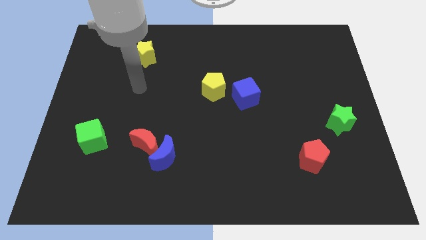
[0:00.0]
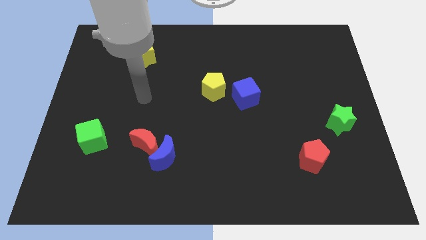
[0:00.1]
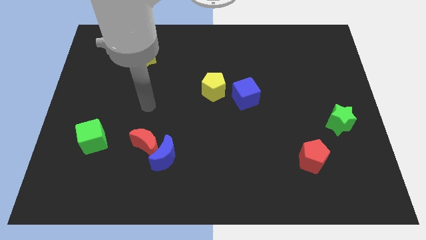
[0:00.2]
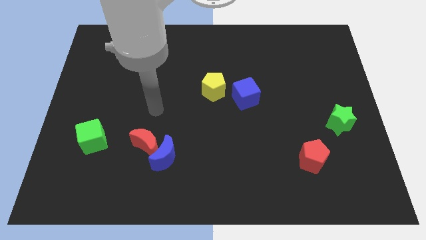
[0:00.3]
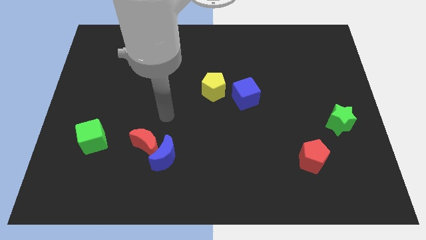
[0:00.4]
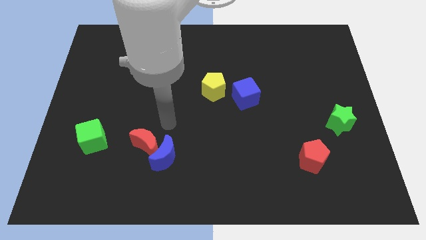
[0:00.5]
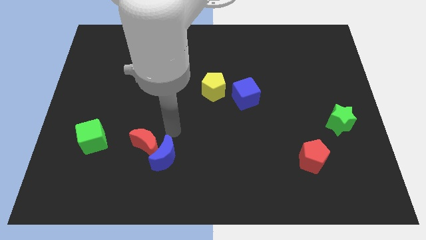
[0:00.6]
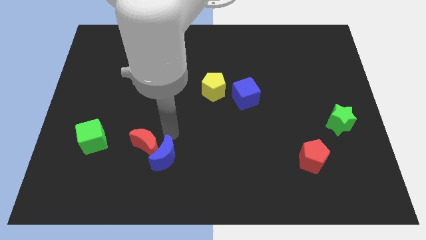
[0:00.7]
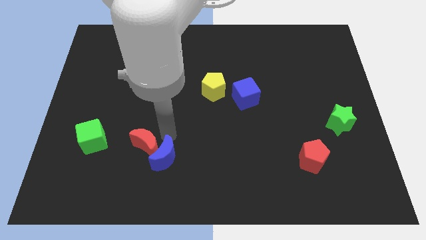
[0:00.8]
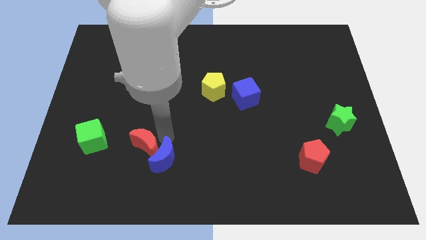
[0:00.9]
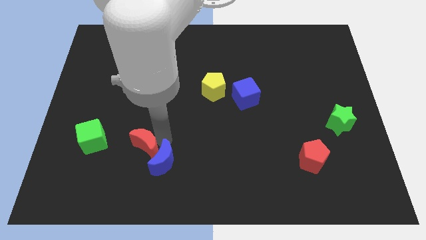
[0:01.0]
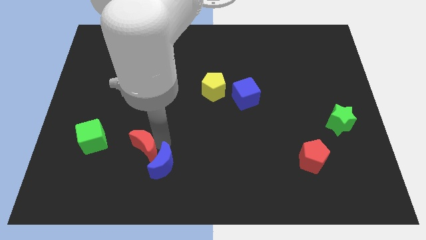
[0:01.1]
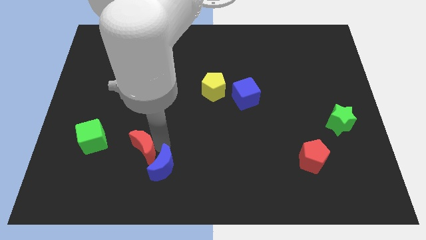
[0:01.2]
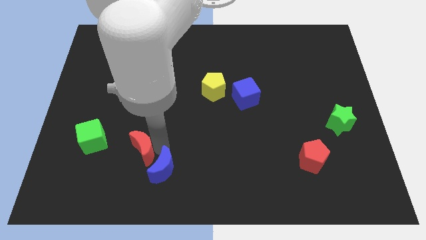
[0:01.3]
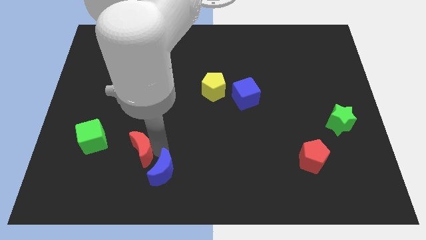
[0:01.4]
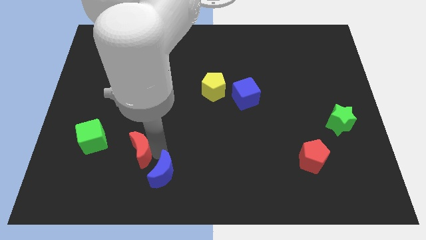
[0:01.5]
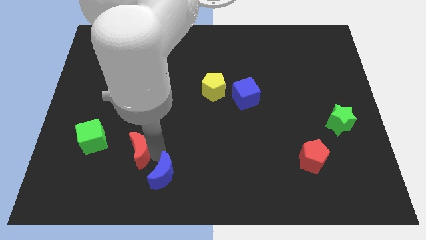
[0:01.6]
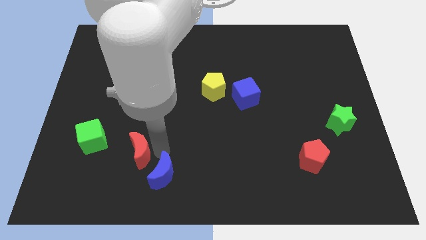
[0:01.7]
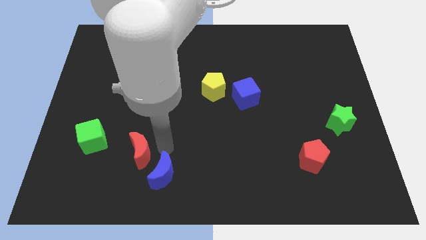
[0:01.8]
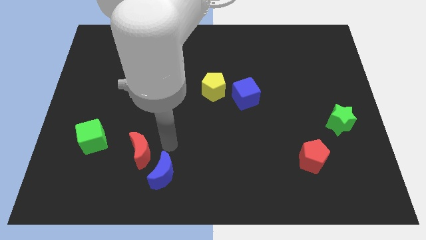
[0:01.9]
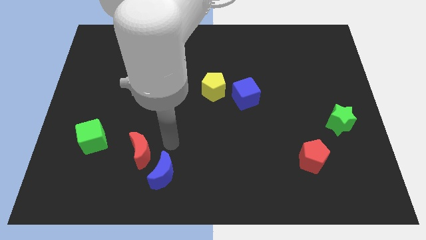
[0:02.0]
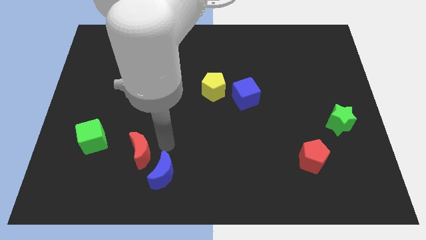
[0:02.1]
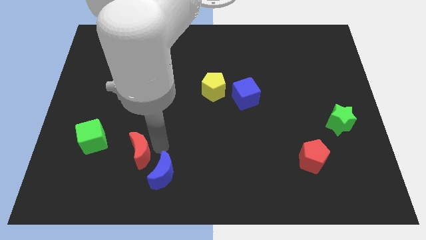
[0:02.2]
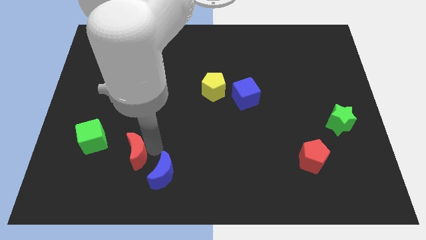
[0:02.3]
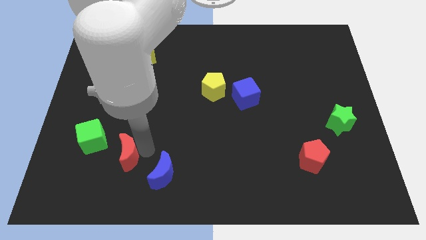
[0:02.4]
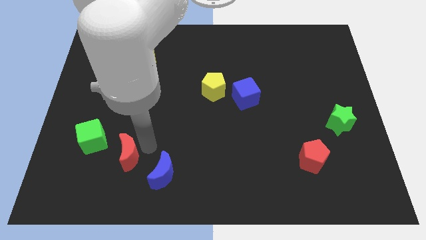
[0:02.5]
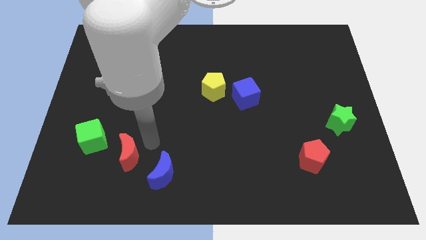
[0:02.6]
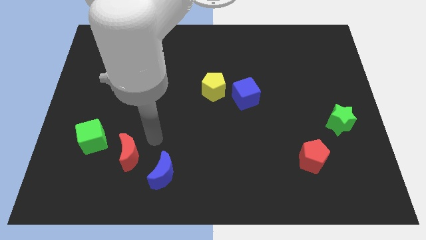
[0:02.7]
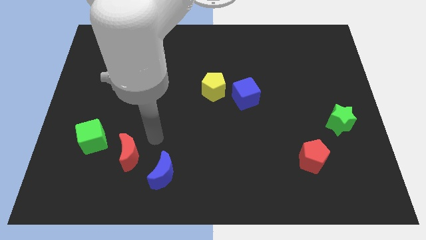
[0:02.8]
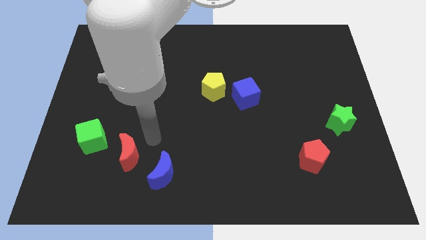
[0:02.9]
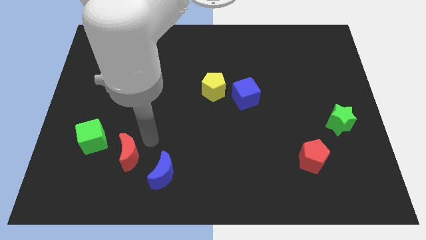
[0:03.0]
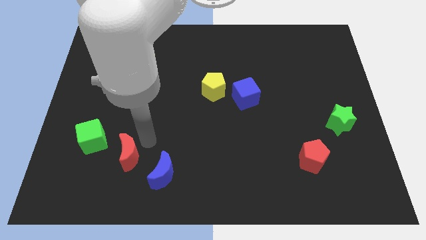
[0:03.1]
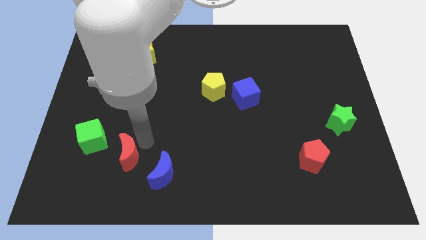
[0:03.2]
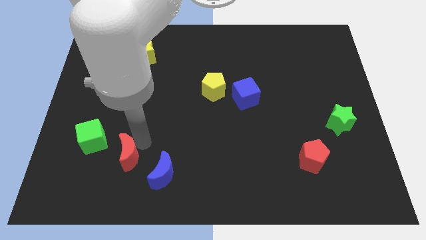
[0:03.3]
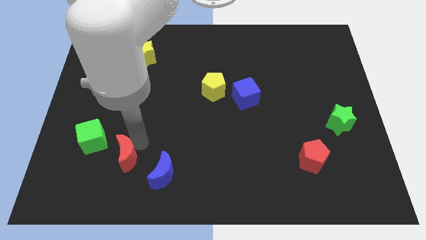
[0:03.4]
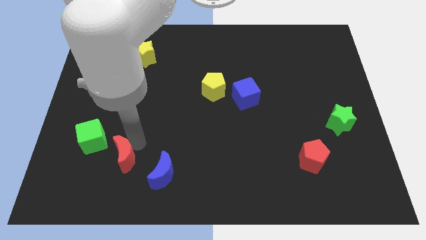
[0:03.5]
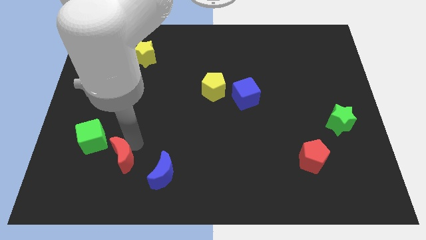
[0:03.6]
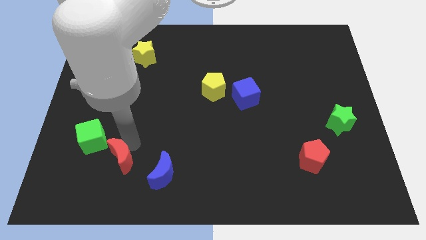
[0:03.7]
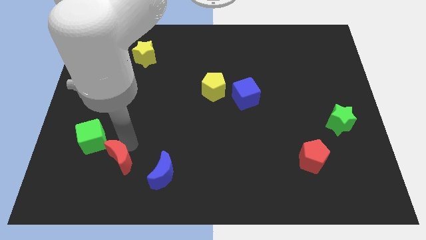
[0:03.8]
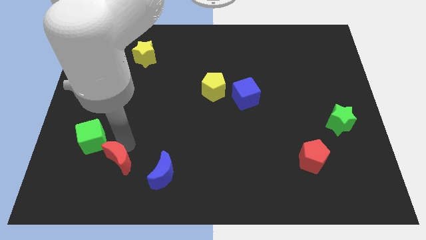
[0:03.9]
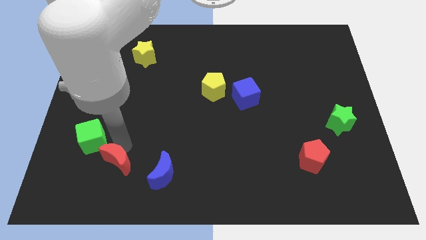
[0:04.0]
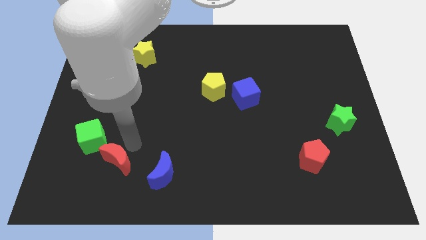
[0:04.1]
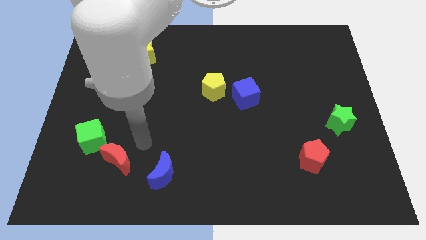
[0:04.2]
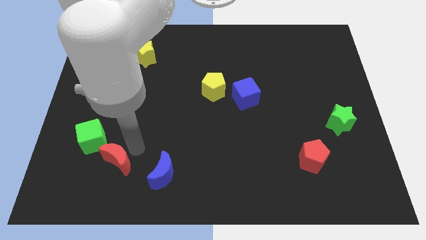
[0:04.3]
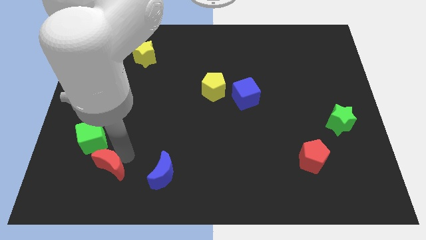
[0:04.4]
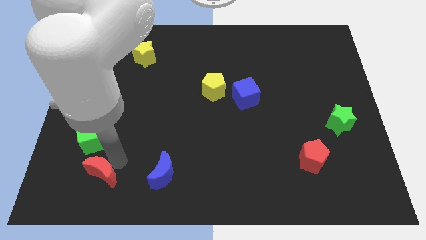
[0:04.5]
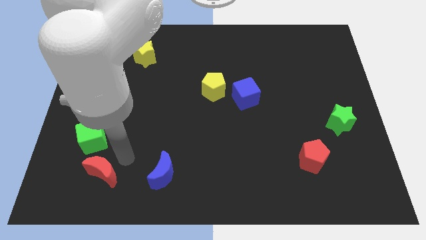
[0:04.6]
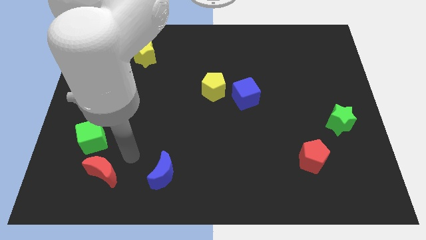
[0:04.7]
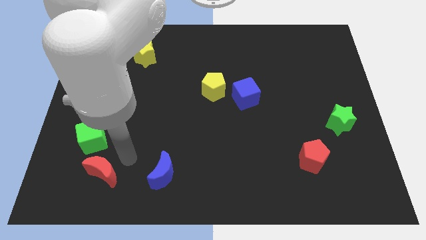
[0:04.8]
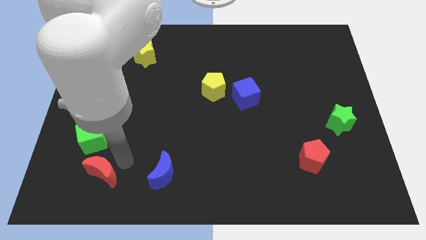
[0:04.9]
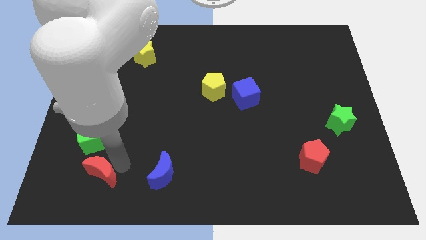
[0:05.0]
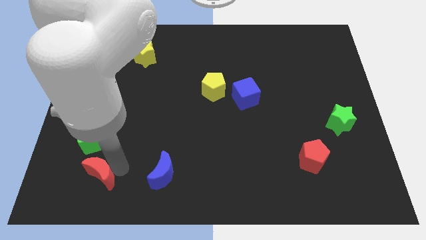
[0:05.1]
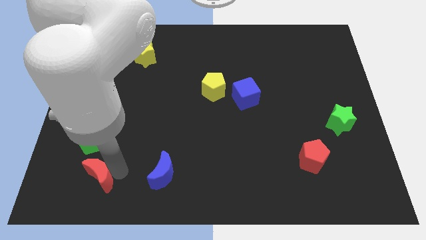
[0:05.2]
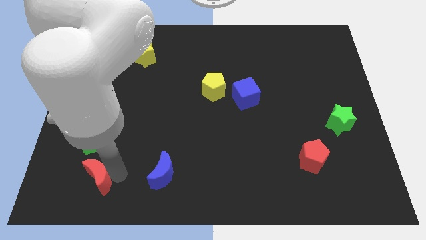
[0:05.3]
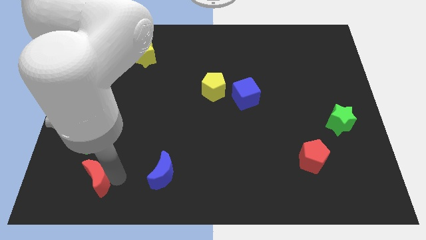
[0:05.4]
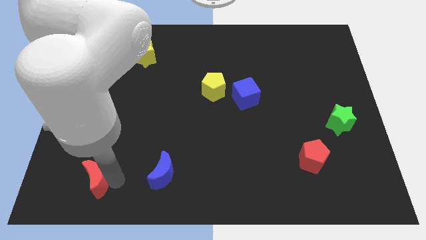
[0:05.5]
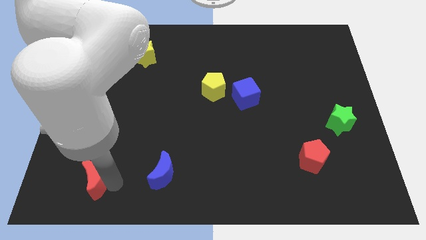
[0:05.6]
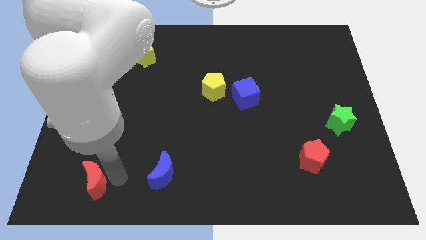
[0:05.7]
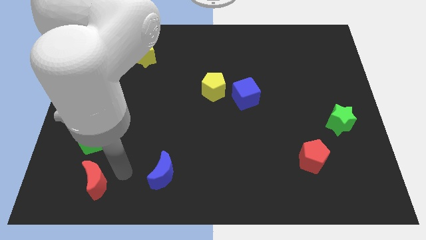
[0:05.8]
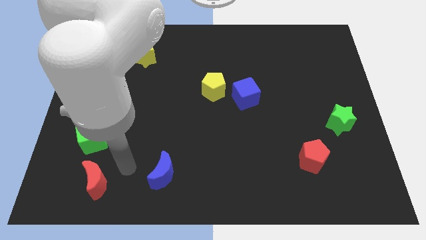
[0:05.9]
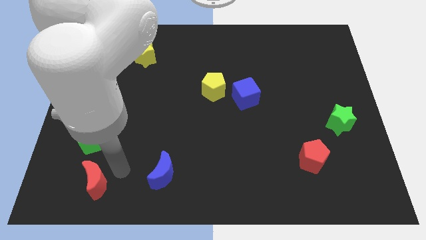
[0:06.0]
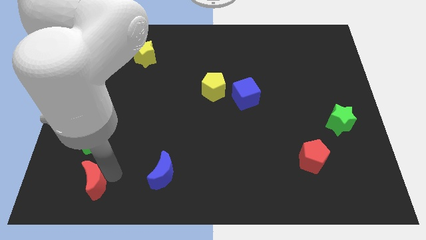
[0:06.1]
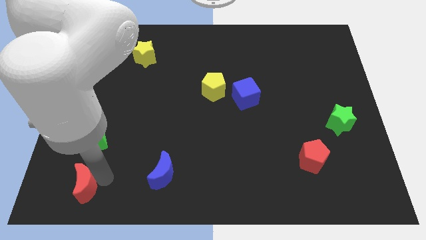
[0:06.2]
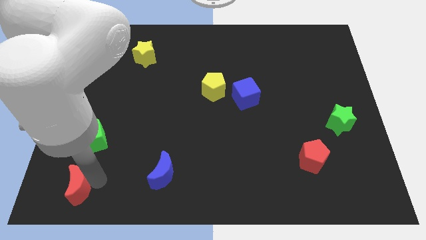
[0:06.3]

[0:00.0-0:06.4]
push the red moon to the bottom left of the board

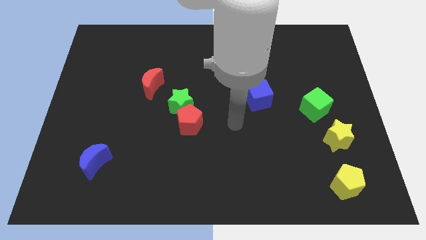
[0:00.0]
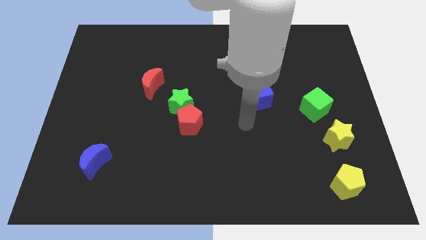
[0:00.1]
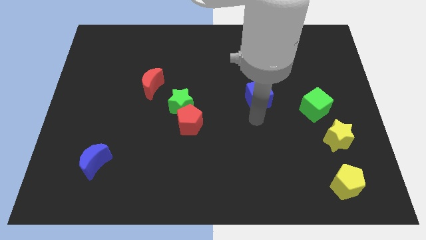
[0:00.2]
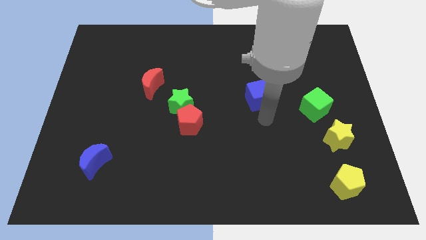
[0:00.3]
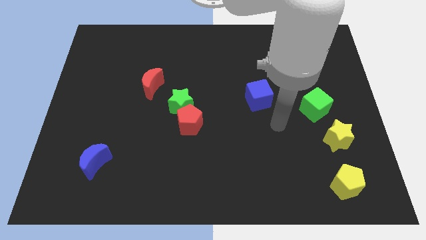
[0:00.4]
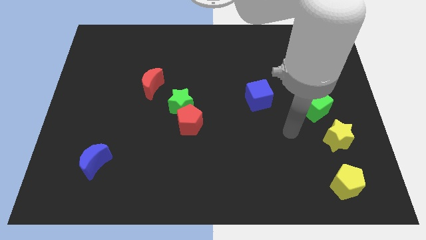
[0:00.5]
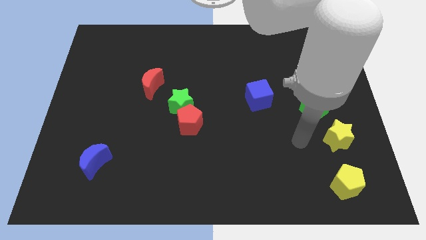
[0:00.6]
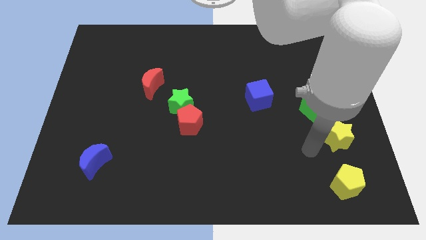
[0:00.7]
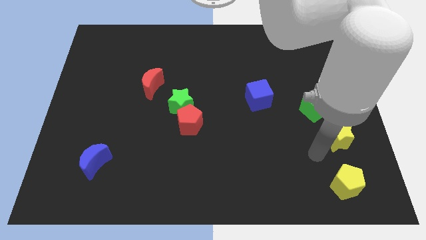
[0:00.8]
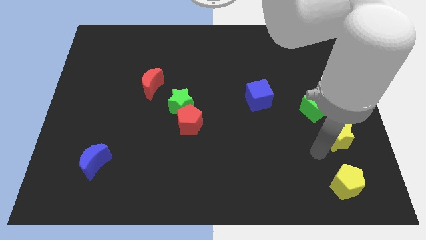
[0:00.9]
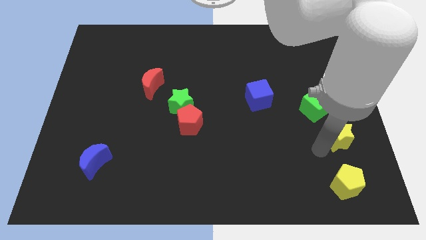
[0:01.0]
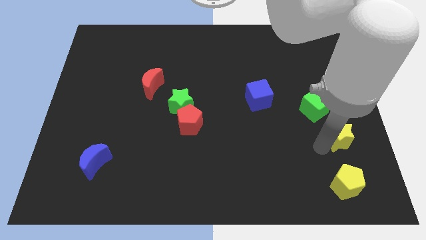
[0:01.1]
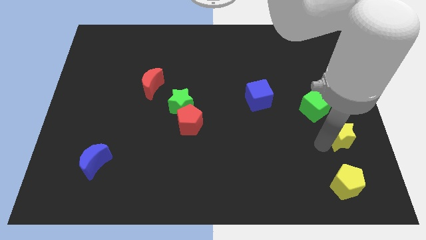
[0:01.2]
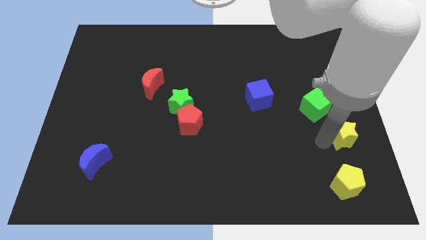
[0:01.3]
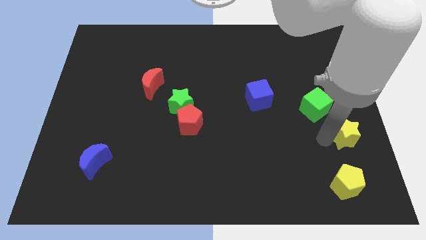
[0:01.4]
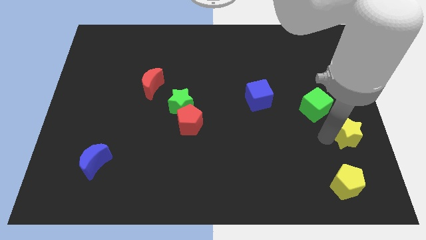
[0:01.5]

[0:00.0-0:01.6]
move the yellow star to the right side of the board
